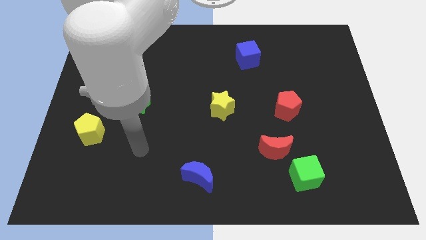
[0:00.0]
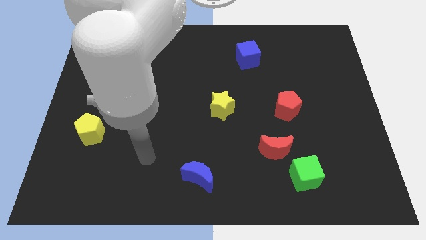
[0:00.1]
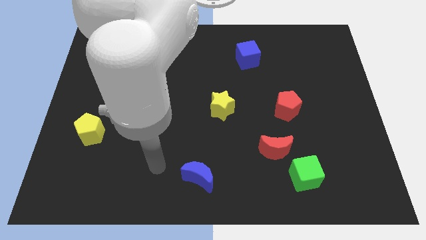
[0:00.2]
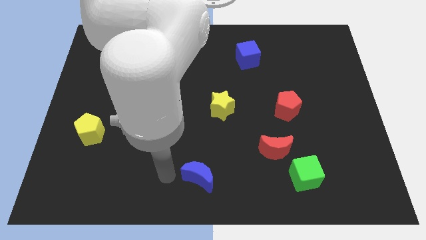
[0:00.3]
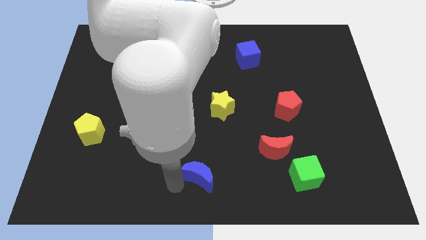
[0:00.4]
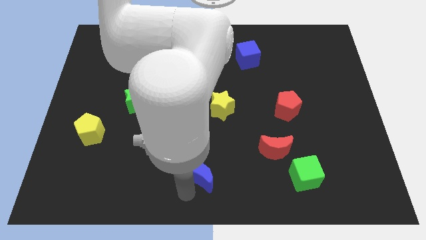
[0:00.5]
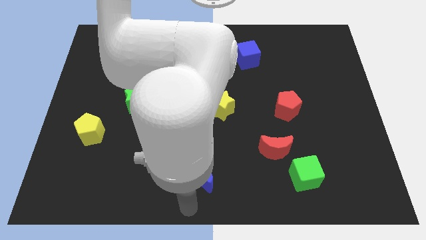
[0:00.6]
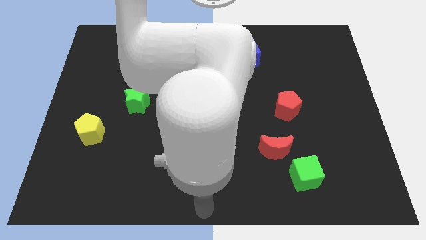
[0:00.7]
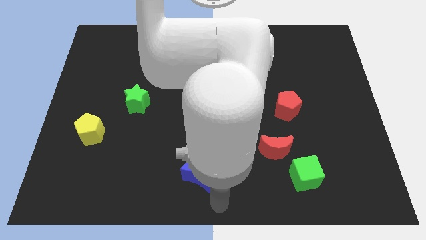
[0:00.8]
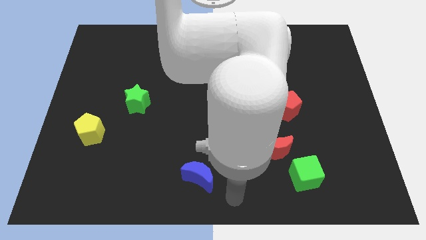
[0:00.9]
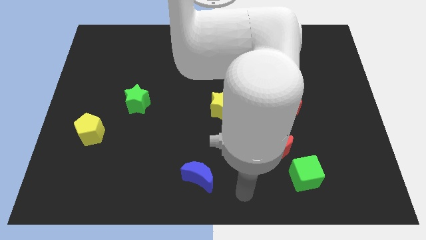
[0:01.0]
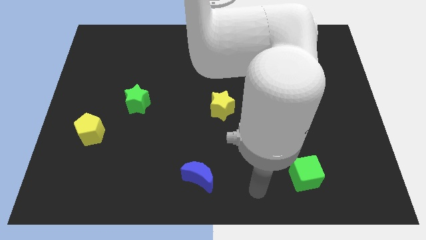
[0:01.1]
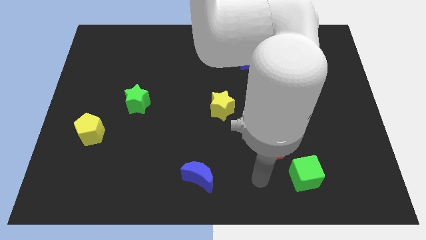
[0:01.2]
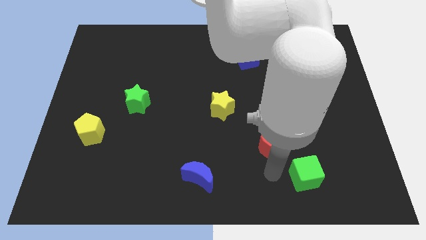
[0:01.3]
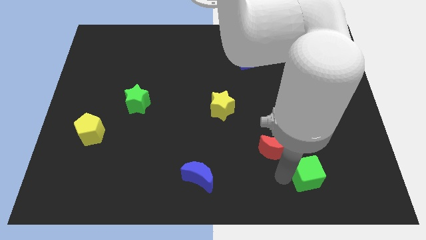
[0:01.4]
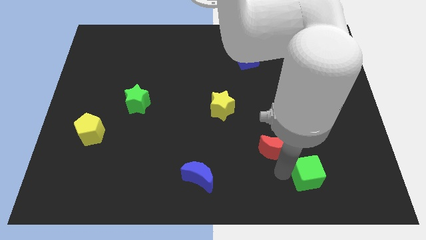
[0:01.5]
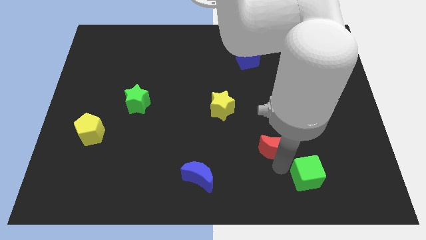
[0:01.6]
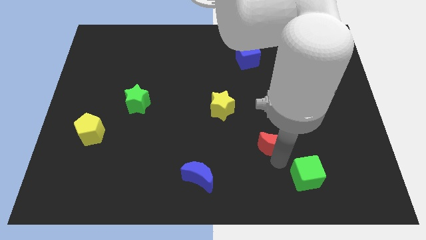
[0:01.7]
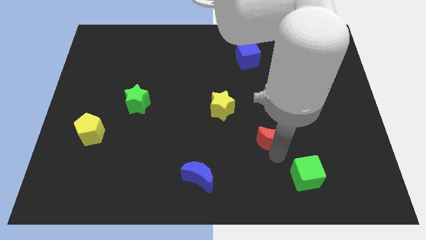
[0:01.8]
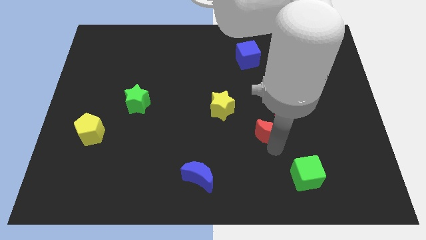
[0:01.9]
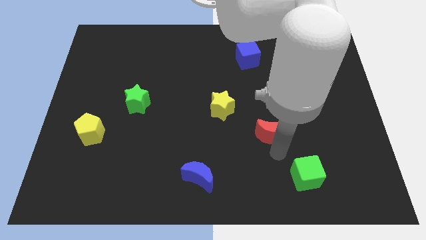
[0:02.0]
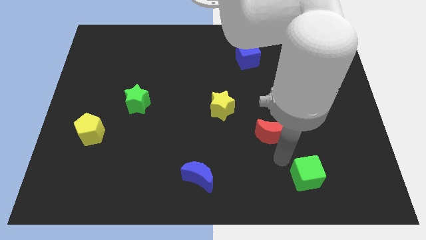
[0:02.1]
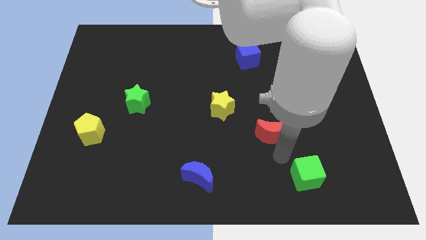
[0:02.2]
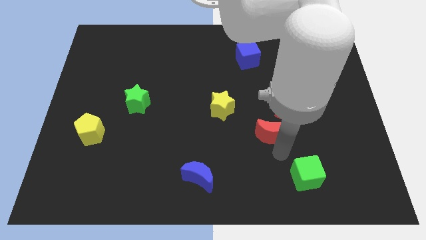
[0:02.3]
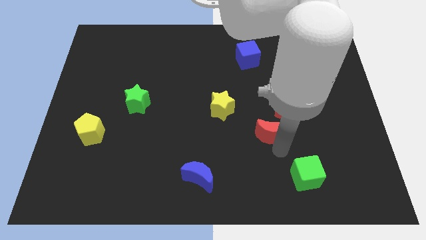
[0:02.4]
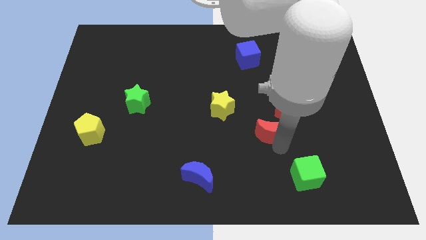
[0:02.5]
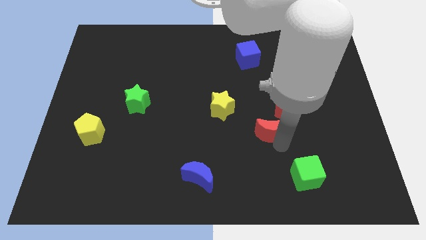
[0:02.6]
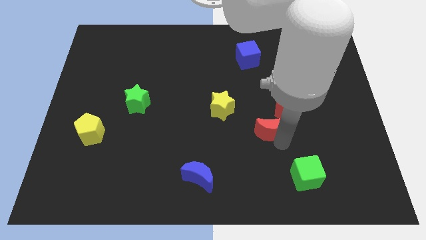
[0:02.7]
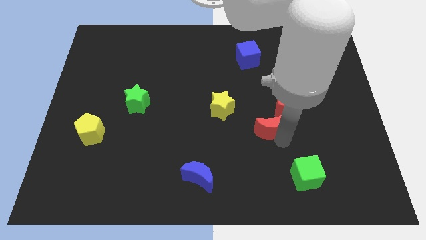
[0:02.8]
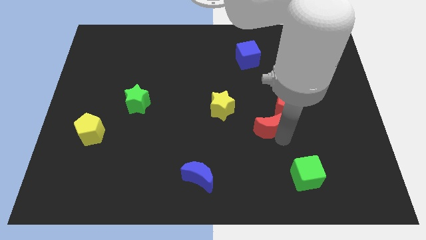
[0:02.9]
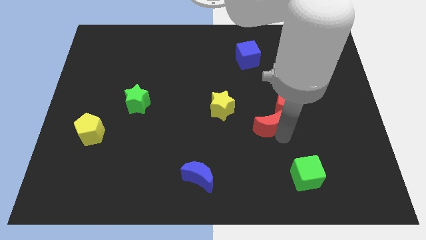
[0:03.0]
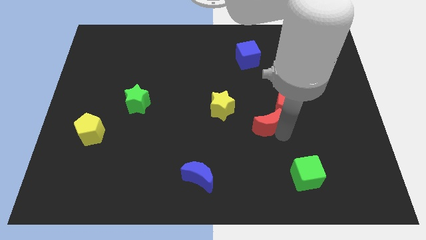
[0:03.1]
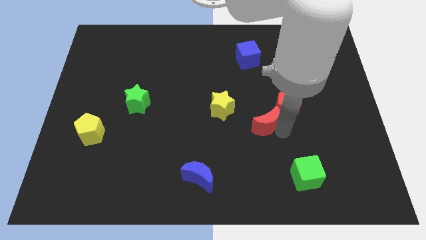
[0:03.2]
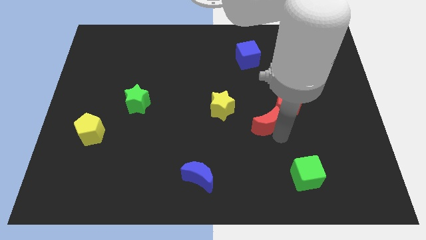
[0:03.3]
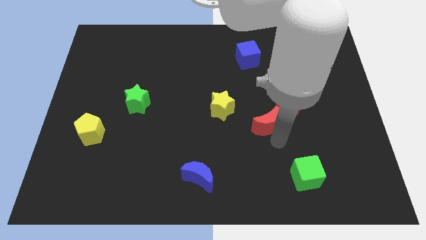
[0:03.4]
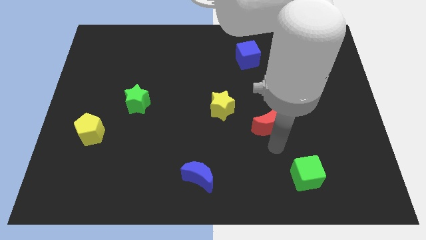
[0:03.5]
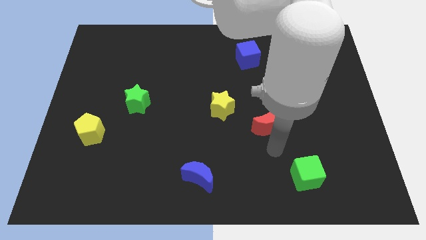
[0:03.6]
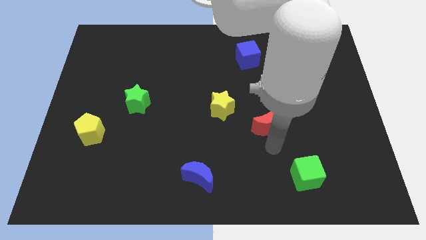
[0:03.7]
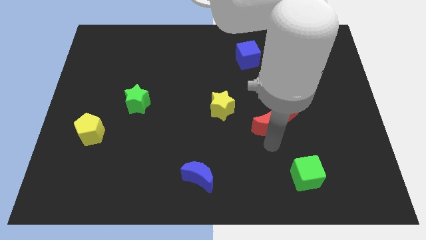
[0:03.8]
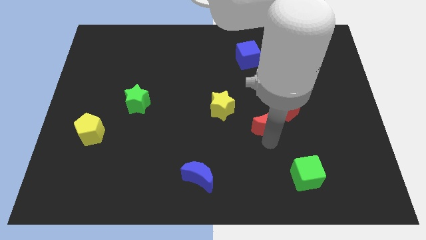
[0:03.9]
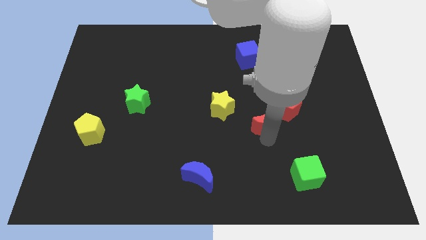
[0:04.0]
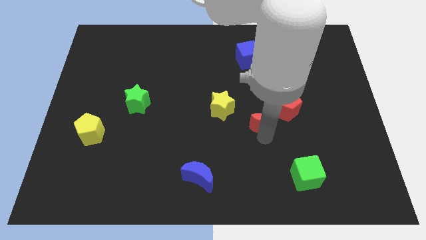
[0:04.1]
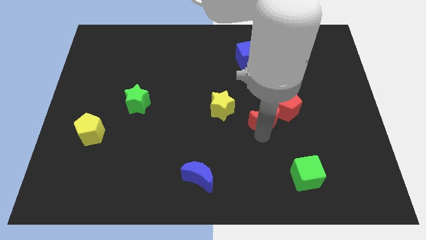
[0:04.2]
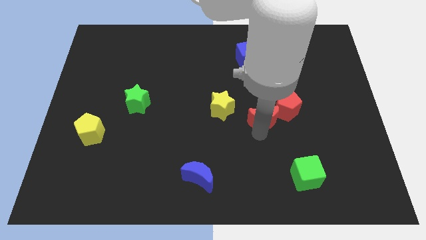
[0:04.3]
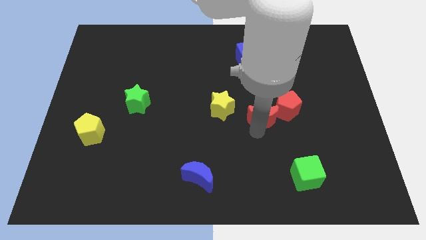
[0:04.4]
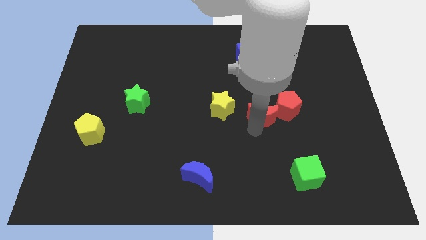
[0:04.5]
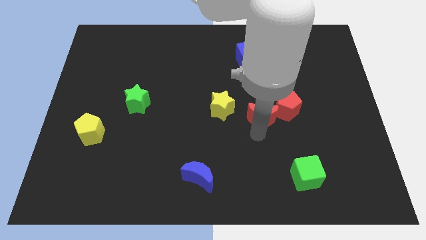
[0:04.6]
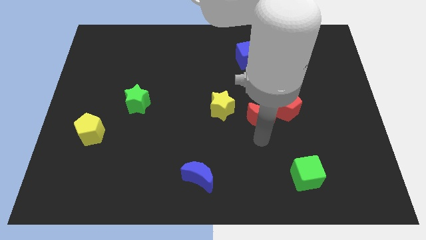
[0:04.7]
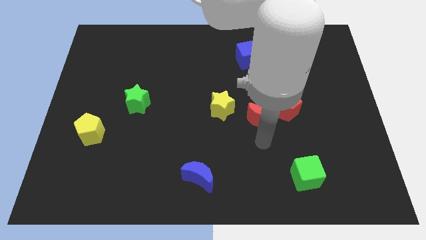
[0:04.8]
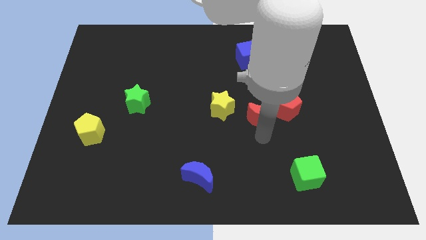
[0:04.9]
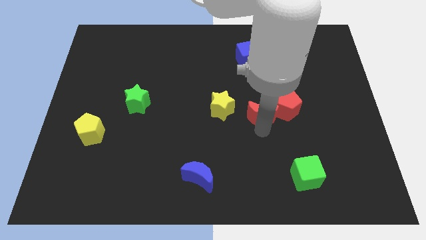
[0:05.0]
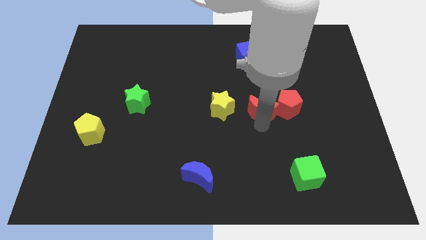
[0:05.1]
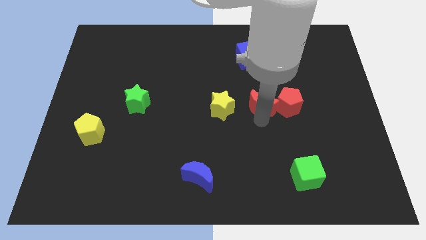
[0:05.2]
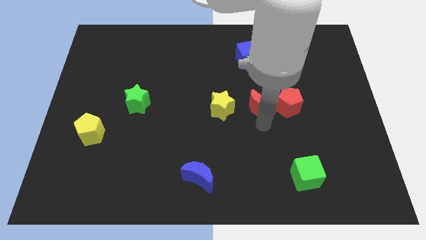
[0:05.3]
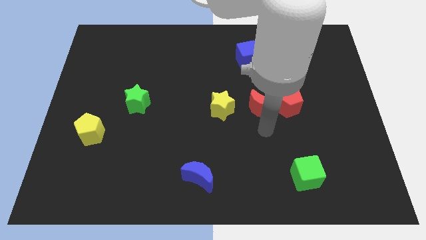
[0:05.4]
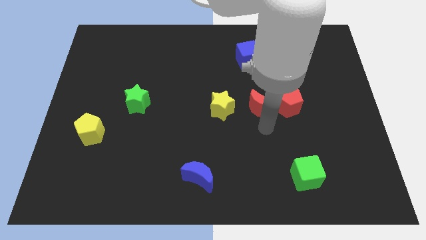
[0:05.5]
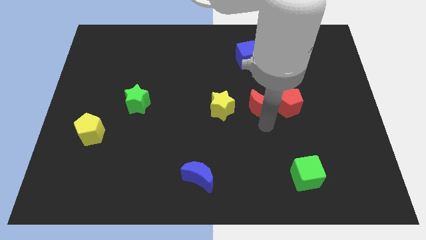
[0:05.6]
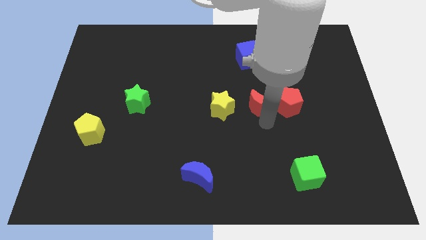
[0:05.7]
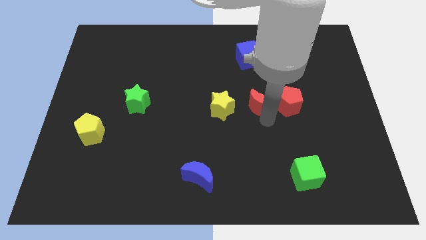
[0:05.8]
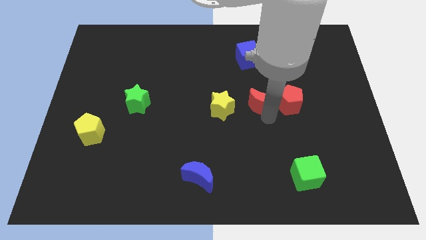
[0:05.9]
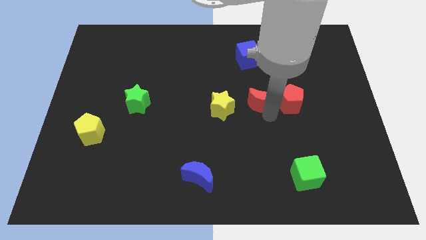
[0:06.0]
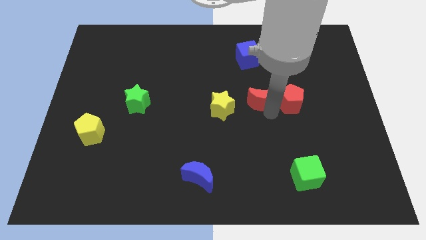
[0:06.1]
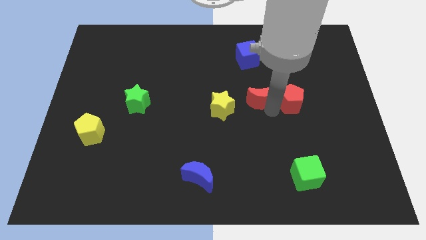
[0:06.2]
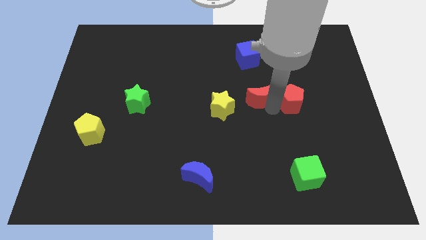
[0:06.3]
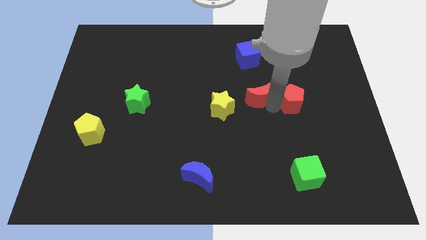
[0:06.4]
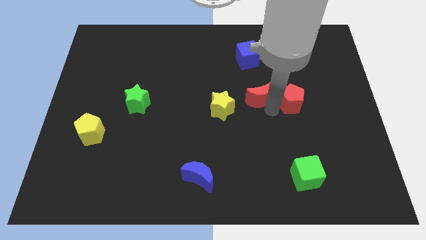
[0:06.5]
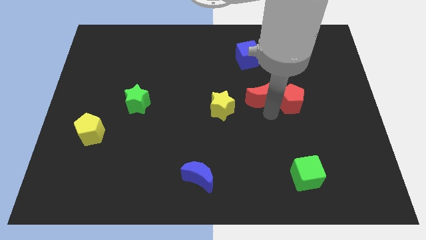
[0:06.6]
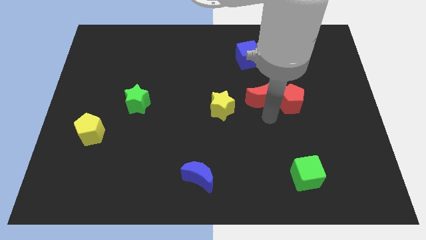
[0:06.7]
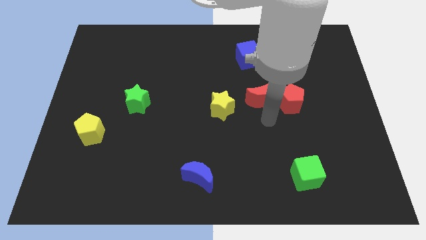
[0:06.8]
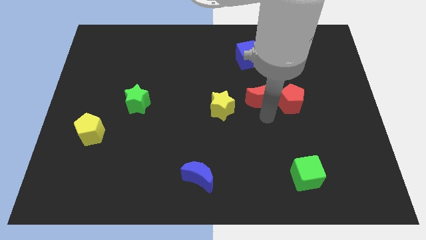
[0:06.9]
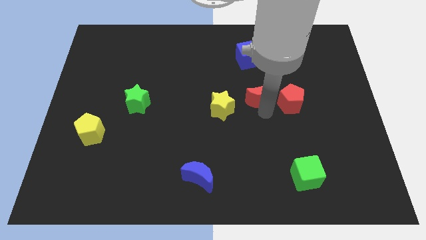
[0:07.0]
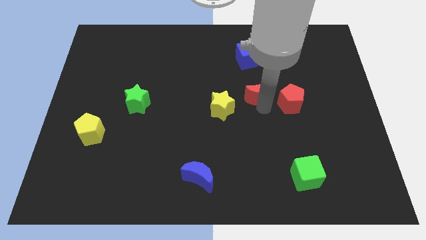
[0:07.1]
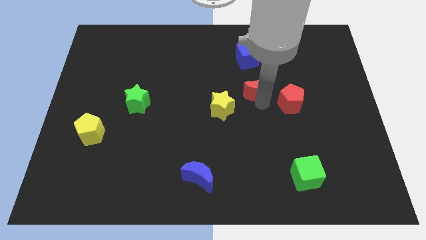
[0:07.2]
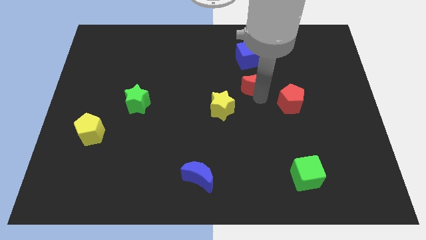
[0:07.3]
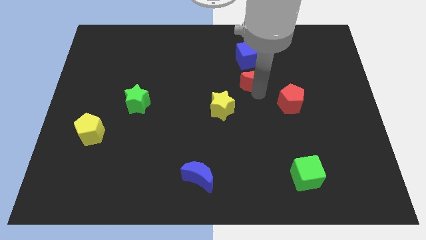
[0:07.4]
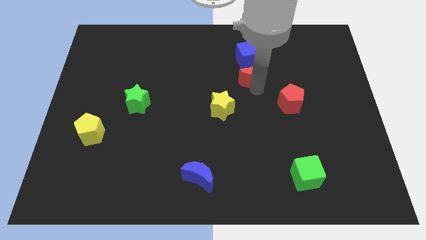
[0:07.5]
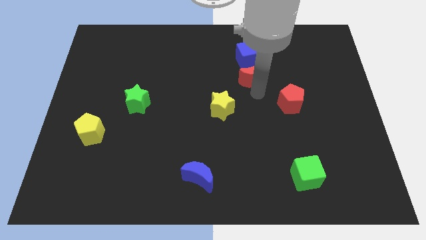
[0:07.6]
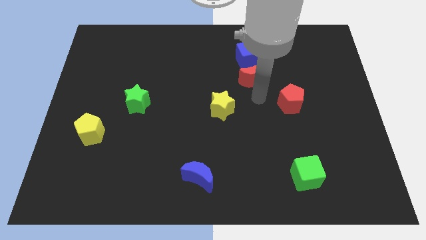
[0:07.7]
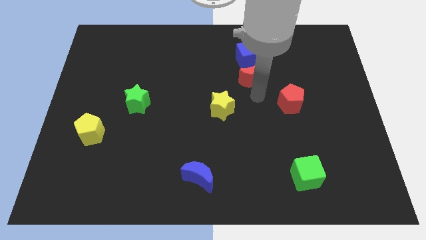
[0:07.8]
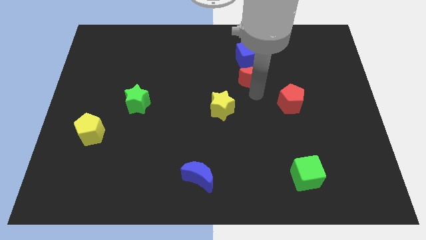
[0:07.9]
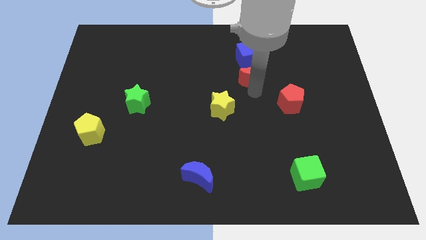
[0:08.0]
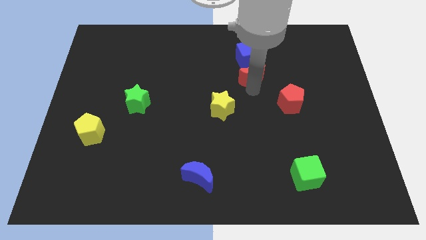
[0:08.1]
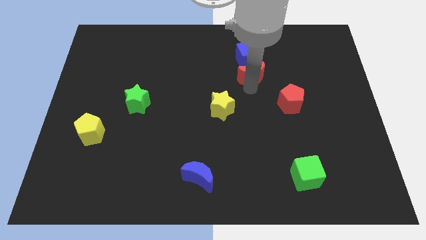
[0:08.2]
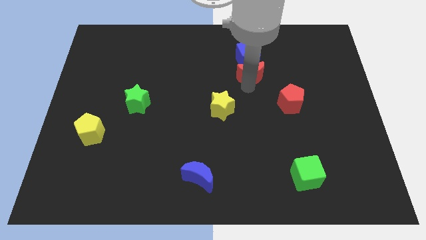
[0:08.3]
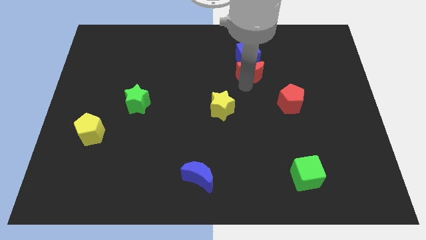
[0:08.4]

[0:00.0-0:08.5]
put the red moon close to the blue cube
